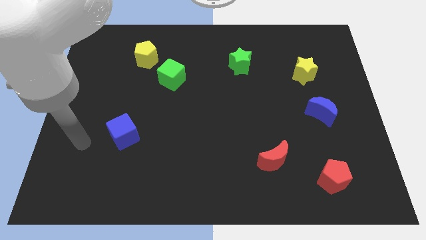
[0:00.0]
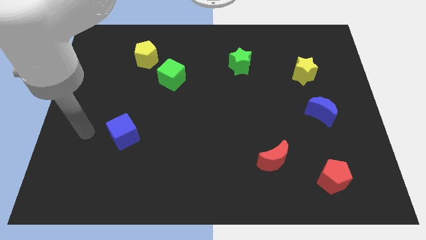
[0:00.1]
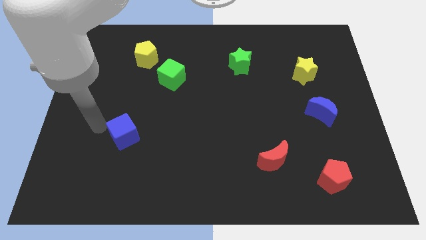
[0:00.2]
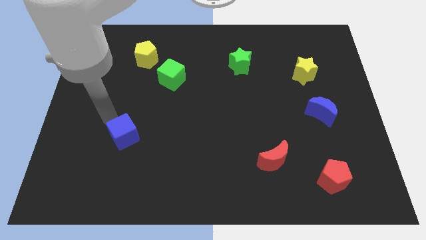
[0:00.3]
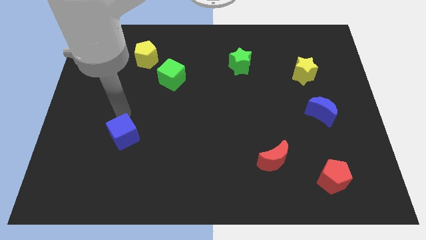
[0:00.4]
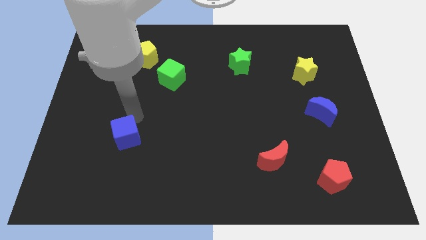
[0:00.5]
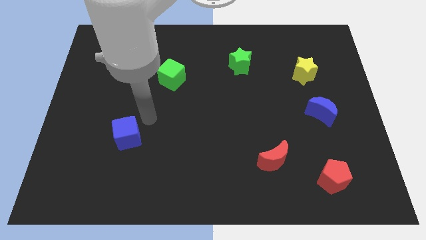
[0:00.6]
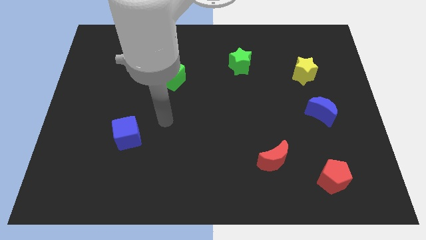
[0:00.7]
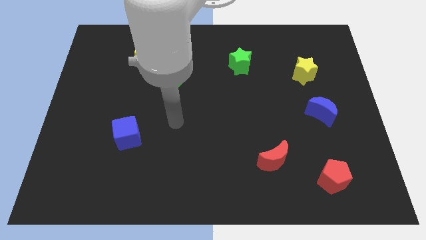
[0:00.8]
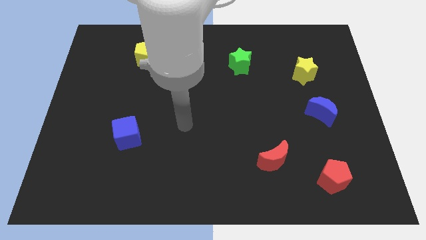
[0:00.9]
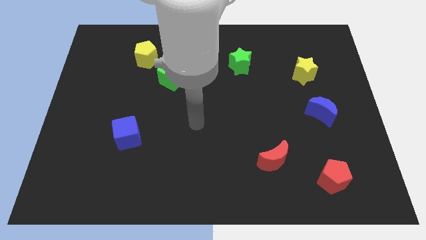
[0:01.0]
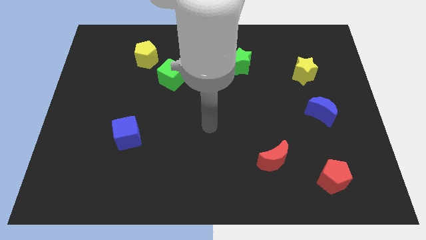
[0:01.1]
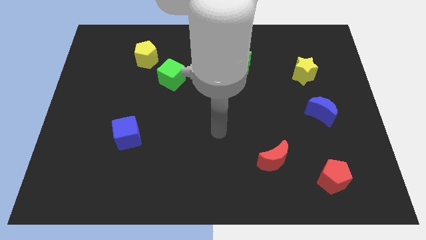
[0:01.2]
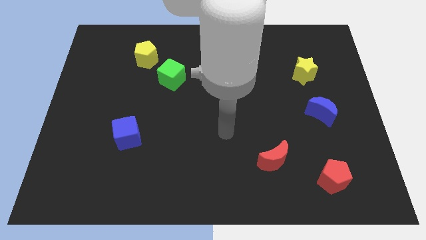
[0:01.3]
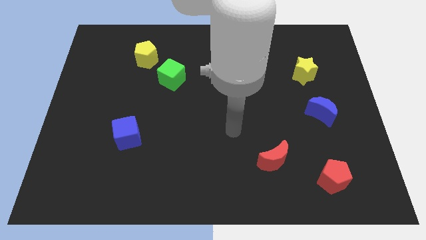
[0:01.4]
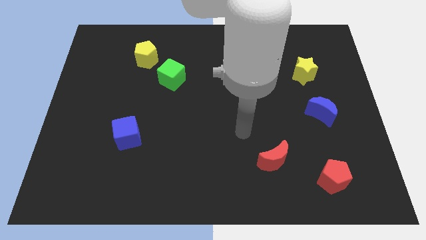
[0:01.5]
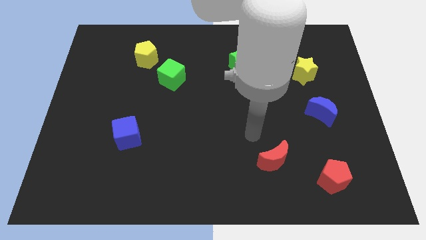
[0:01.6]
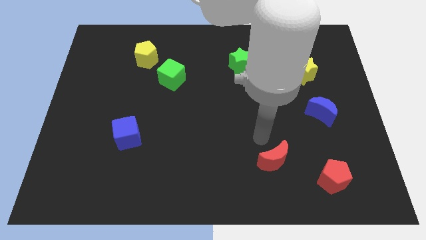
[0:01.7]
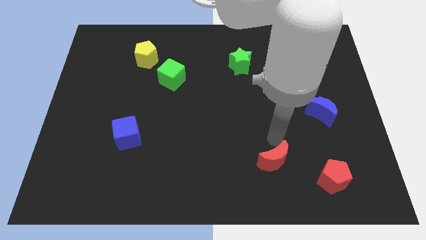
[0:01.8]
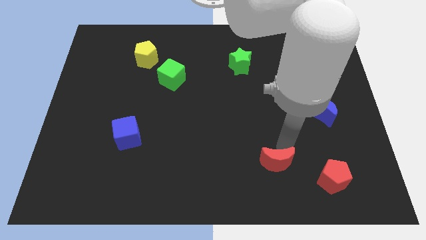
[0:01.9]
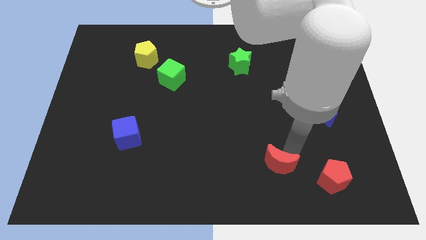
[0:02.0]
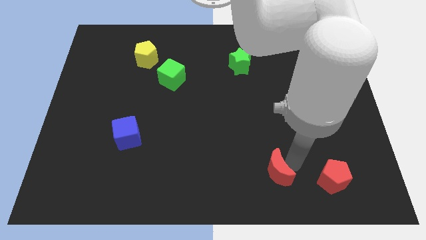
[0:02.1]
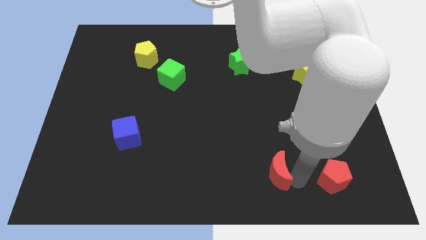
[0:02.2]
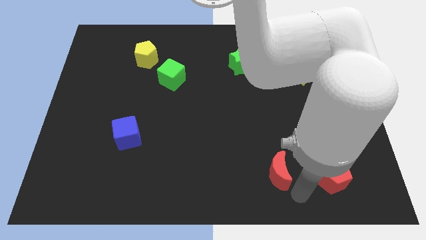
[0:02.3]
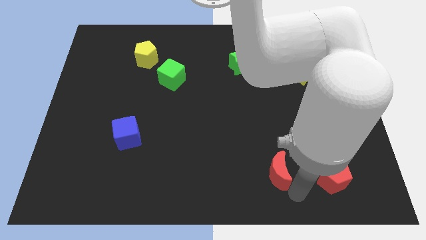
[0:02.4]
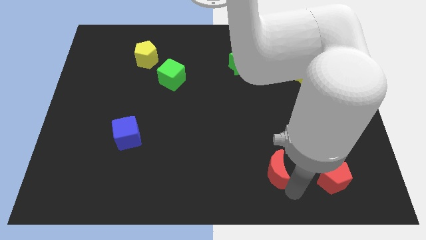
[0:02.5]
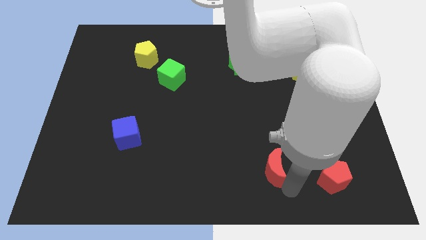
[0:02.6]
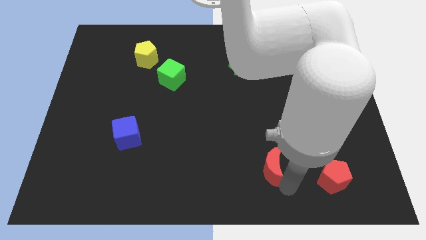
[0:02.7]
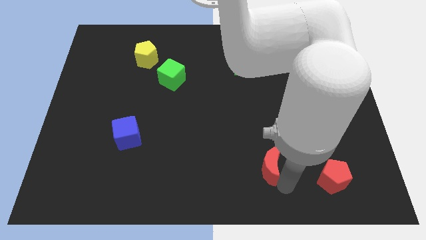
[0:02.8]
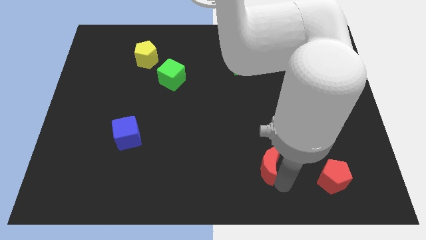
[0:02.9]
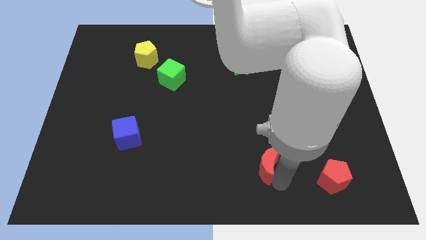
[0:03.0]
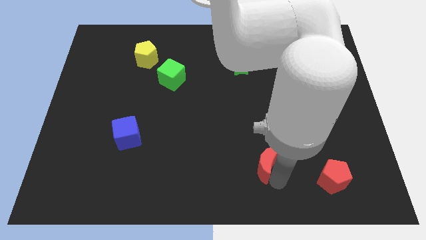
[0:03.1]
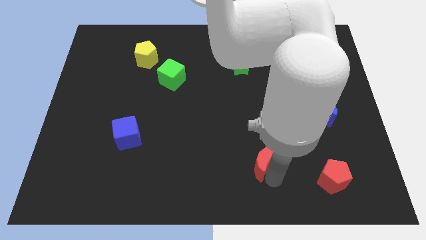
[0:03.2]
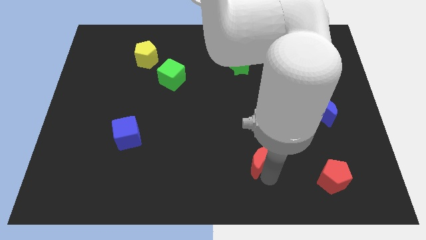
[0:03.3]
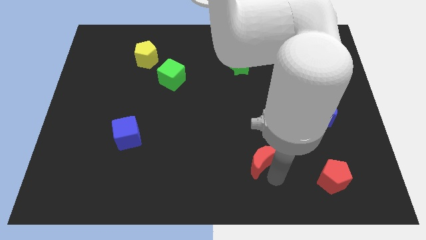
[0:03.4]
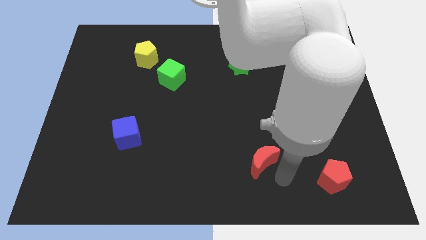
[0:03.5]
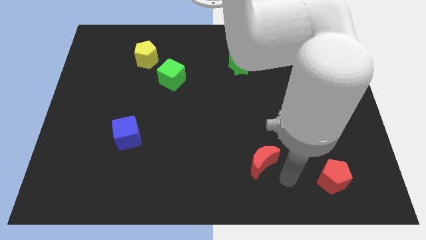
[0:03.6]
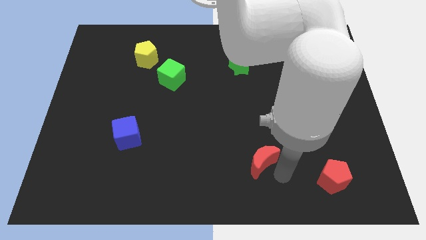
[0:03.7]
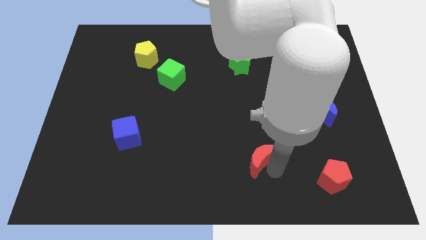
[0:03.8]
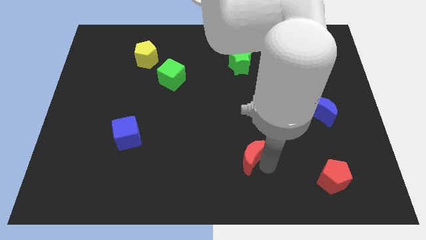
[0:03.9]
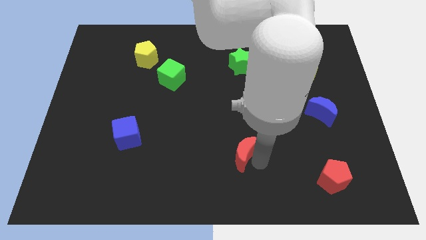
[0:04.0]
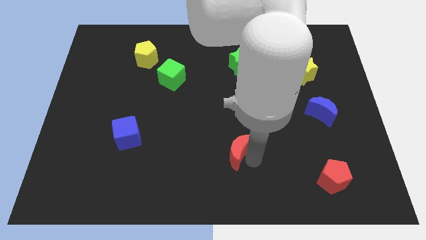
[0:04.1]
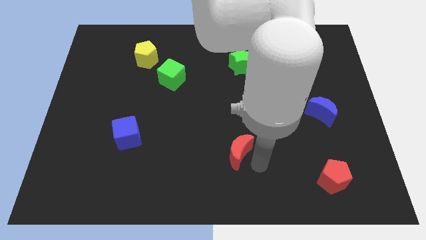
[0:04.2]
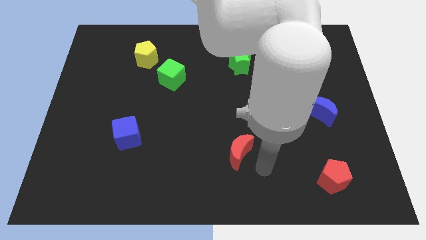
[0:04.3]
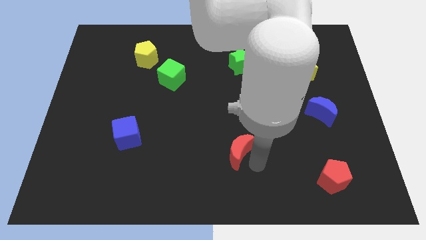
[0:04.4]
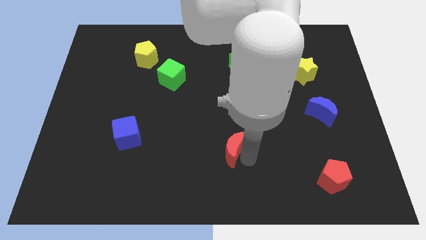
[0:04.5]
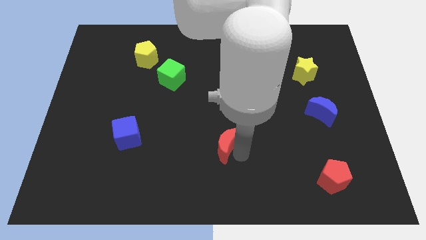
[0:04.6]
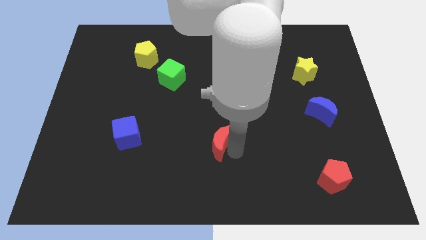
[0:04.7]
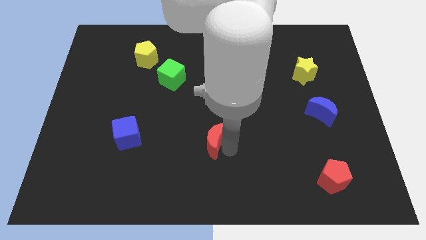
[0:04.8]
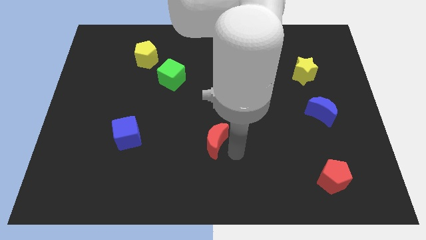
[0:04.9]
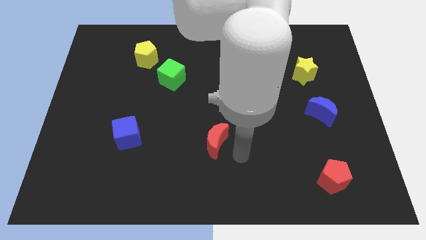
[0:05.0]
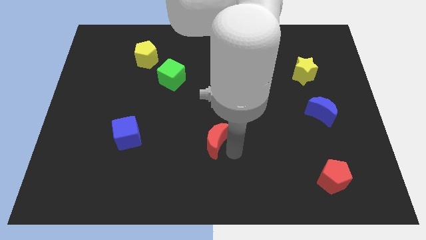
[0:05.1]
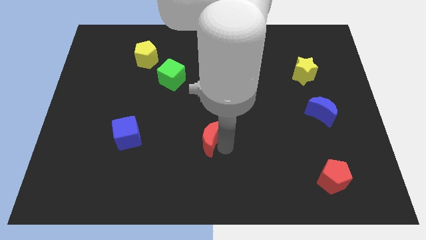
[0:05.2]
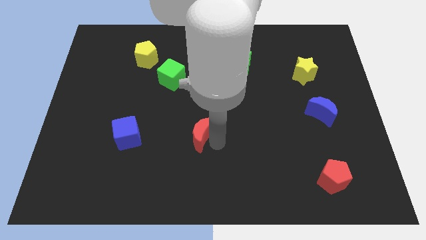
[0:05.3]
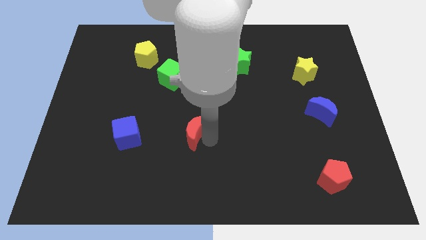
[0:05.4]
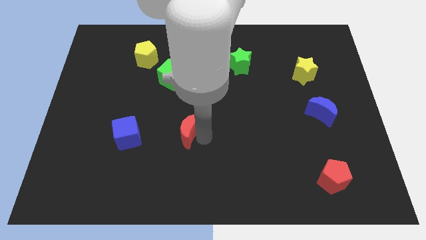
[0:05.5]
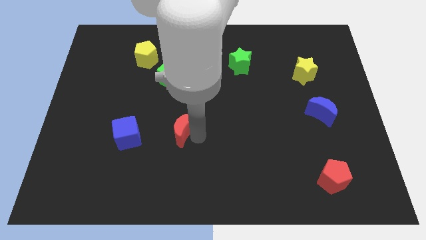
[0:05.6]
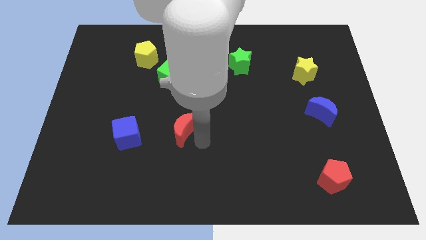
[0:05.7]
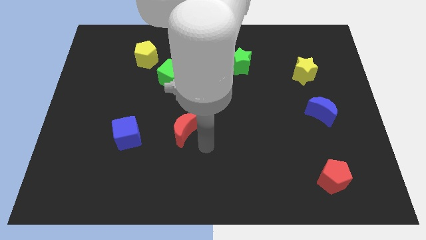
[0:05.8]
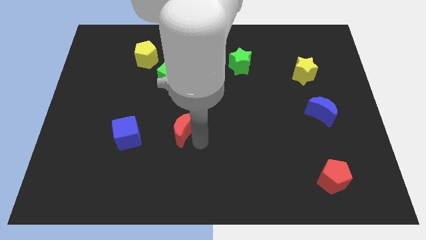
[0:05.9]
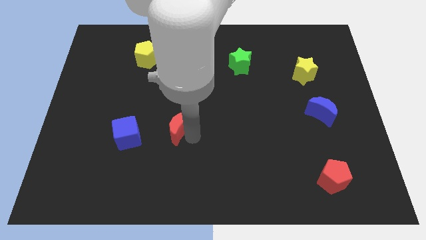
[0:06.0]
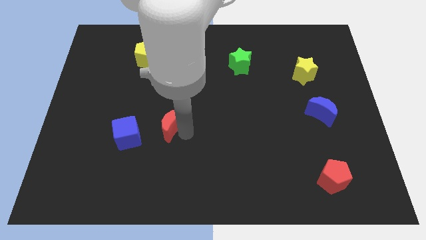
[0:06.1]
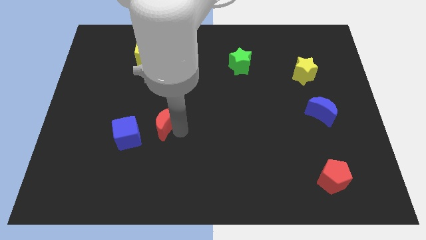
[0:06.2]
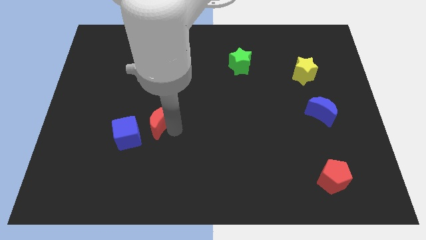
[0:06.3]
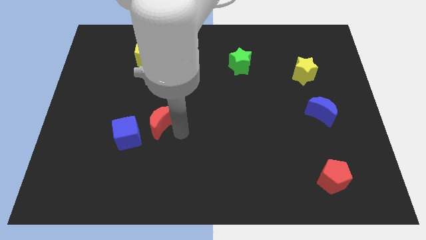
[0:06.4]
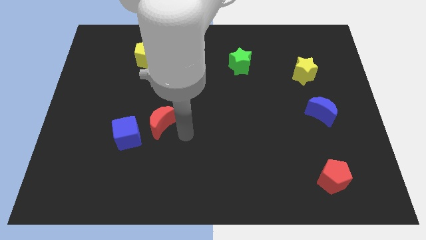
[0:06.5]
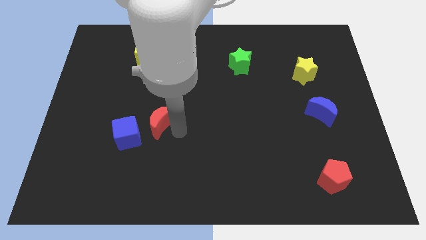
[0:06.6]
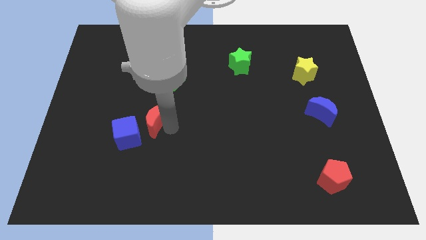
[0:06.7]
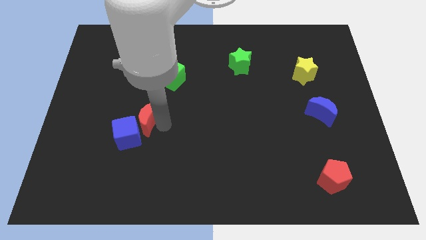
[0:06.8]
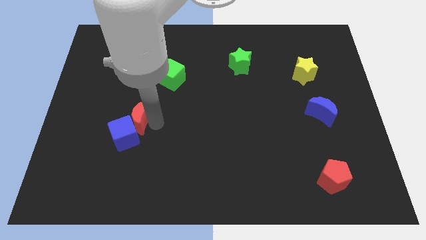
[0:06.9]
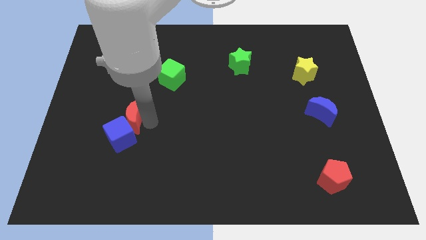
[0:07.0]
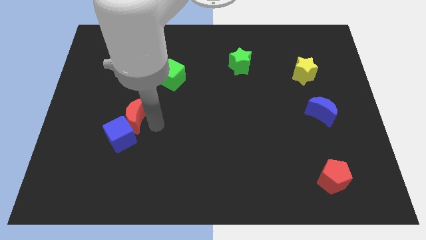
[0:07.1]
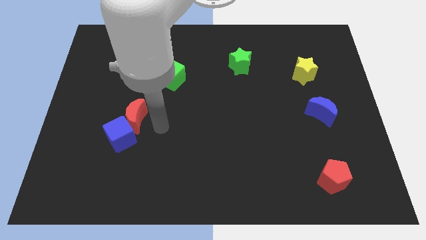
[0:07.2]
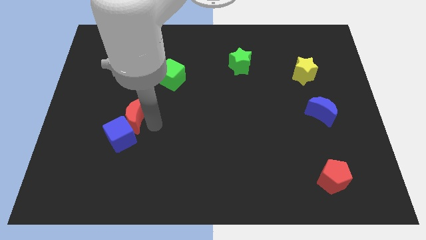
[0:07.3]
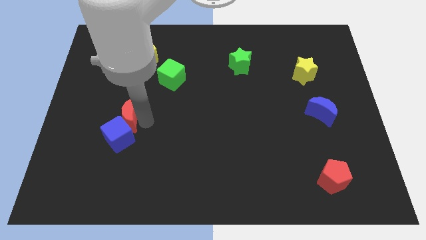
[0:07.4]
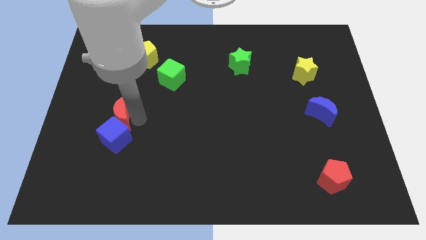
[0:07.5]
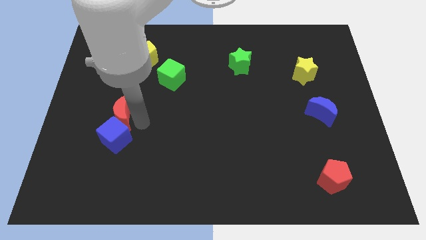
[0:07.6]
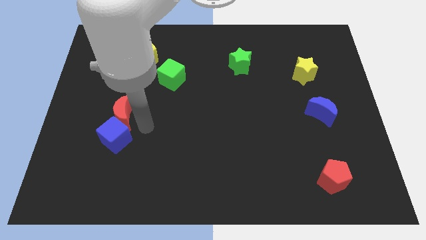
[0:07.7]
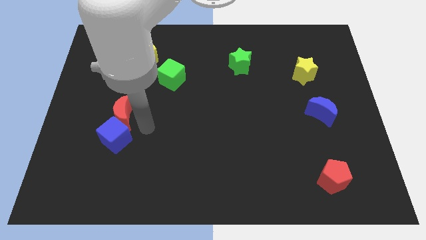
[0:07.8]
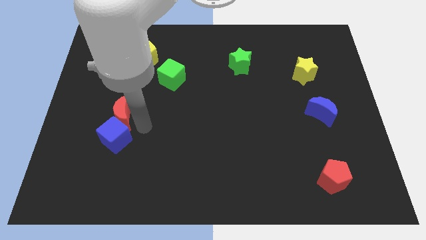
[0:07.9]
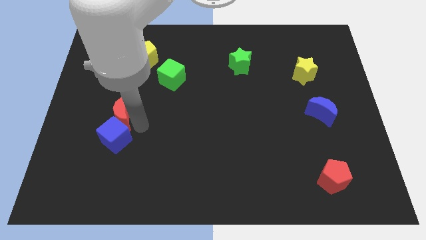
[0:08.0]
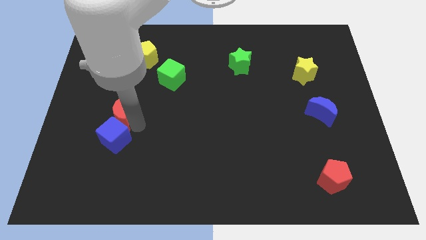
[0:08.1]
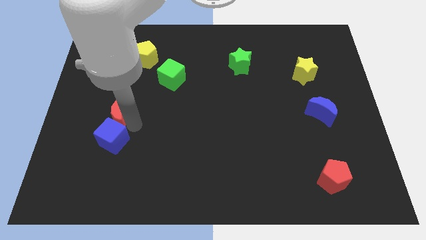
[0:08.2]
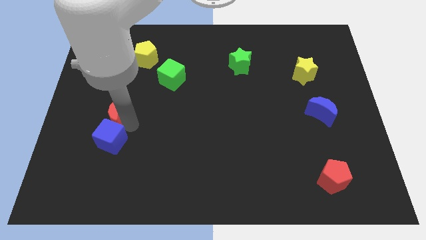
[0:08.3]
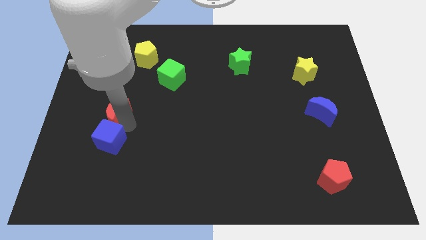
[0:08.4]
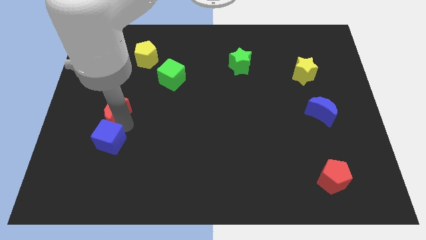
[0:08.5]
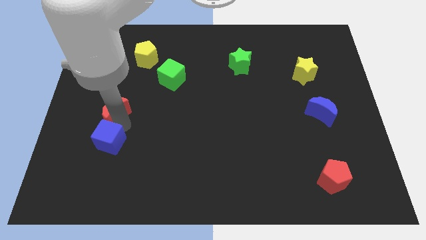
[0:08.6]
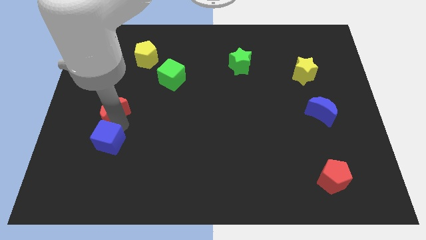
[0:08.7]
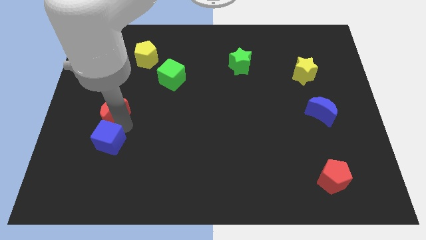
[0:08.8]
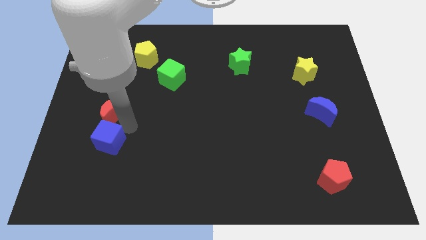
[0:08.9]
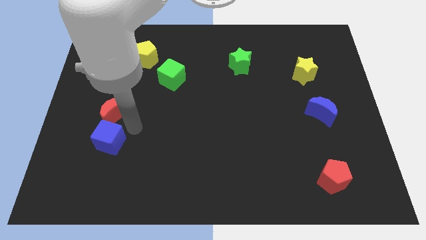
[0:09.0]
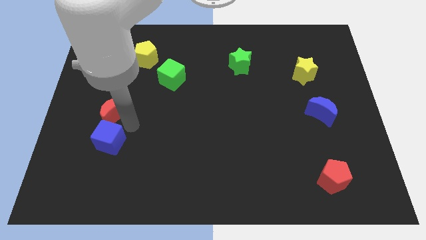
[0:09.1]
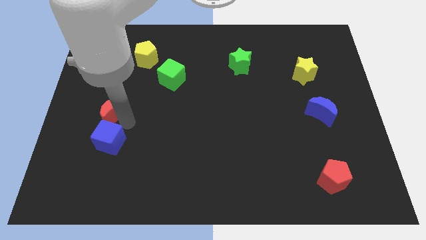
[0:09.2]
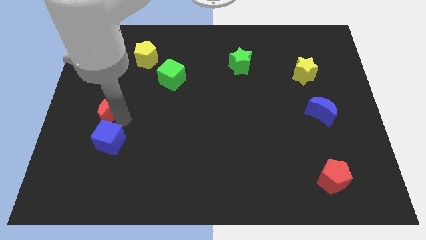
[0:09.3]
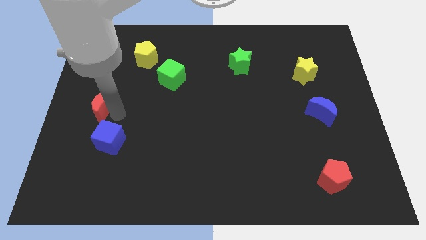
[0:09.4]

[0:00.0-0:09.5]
slide the red moon to the left side of the board
